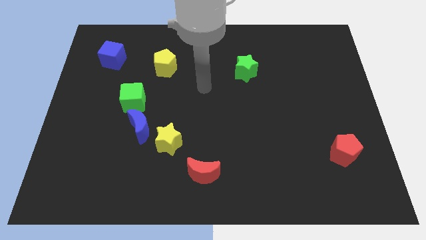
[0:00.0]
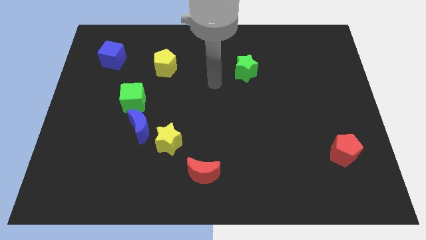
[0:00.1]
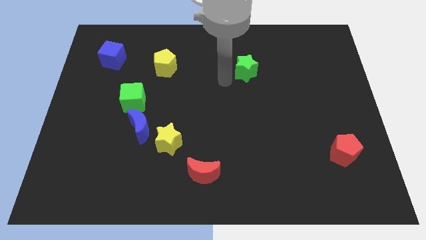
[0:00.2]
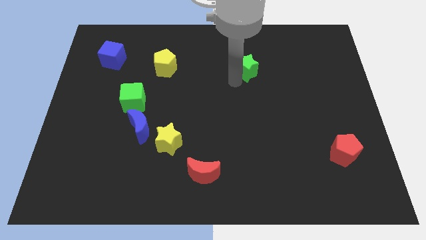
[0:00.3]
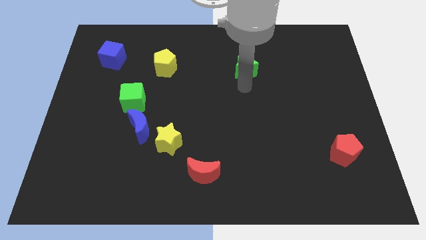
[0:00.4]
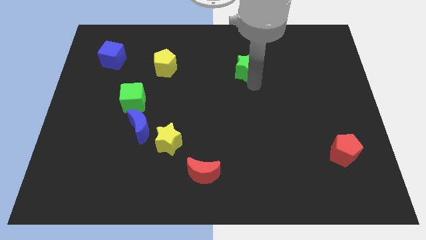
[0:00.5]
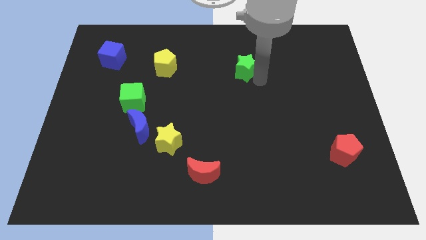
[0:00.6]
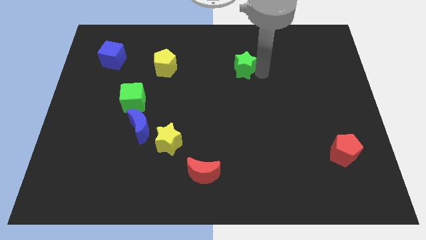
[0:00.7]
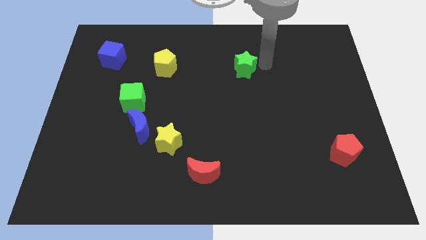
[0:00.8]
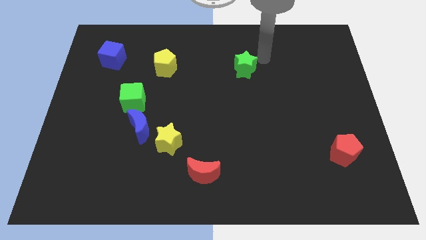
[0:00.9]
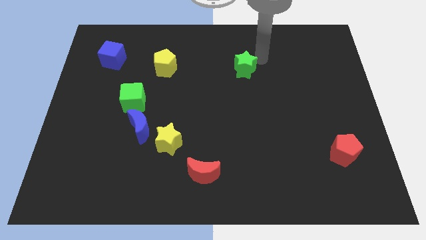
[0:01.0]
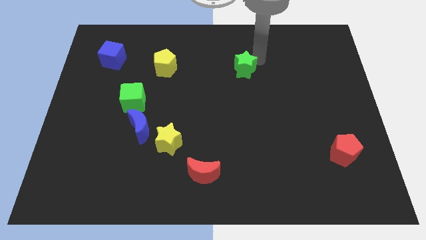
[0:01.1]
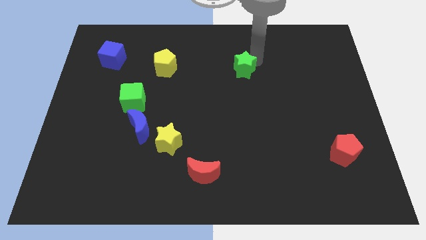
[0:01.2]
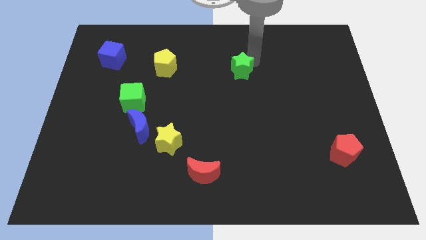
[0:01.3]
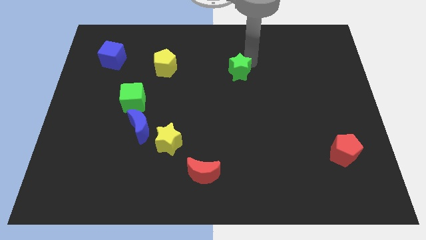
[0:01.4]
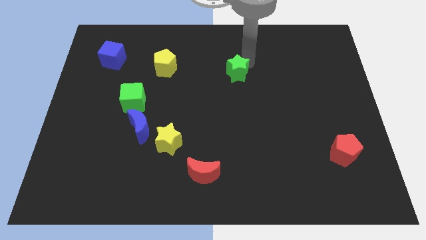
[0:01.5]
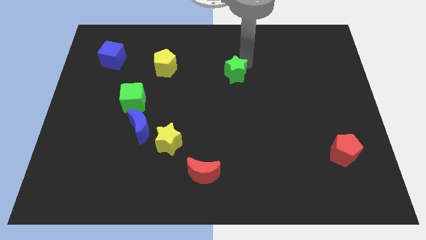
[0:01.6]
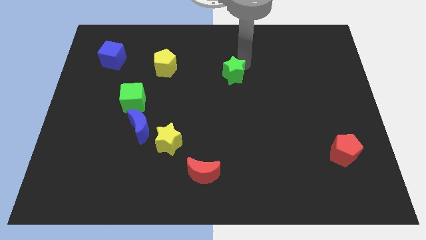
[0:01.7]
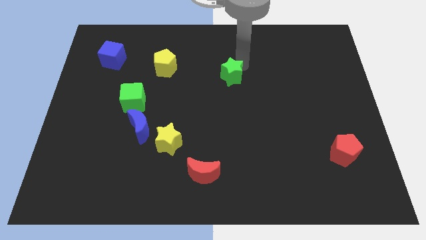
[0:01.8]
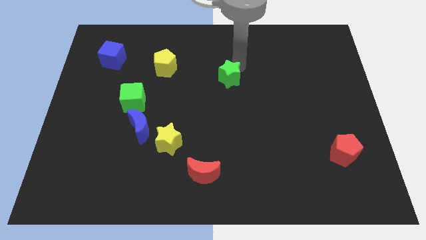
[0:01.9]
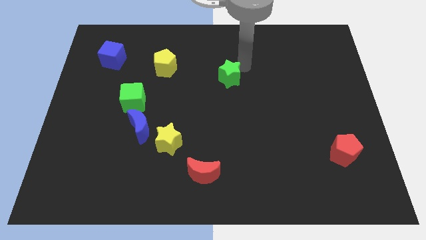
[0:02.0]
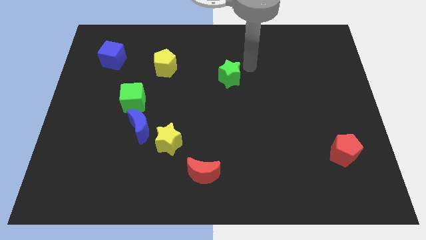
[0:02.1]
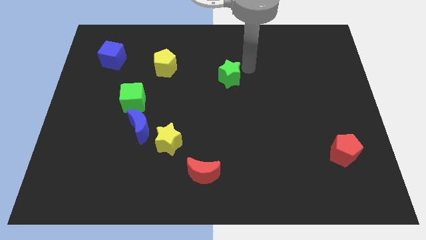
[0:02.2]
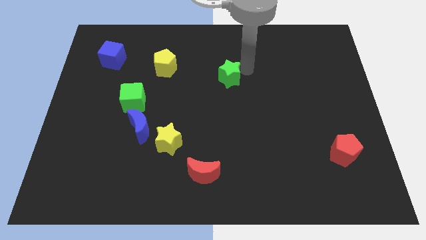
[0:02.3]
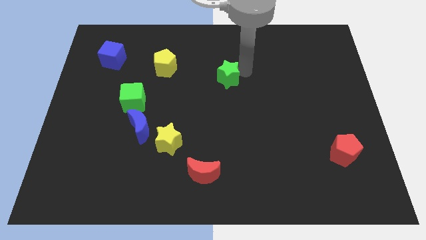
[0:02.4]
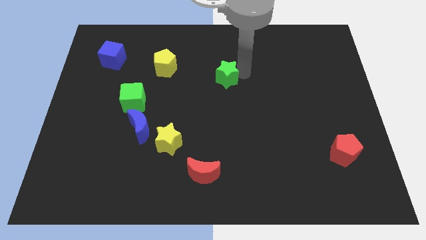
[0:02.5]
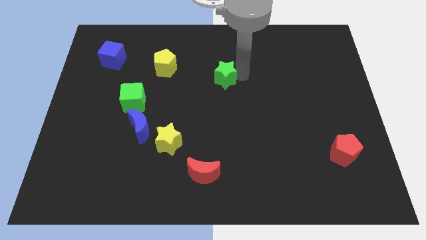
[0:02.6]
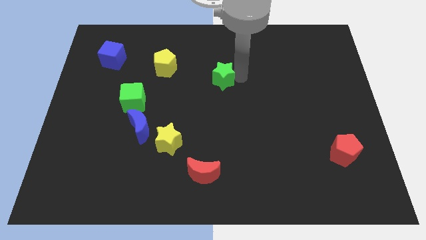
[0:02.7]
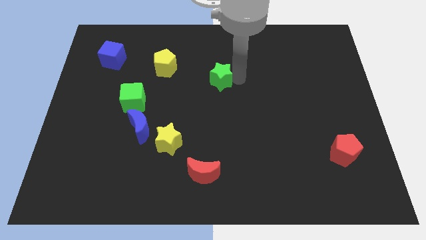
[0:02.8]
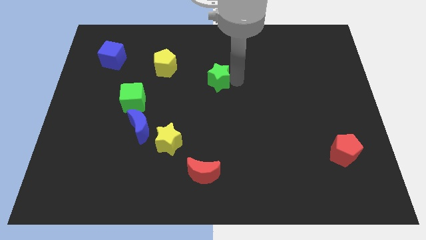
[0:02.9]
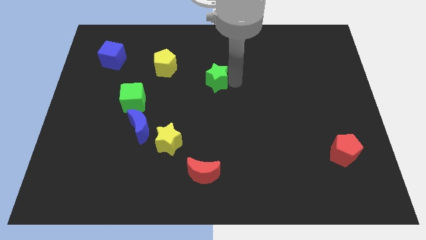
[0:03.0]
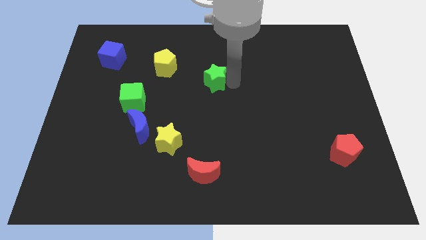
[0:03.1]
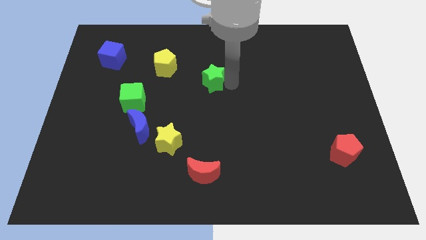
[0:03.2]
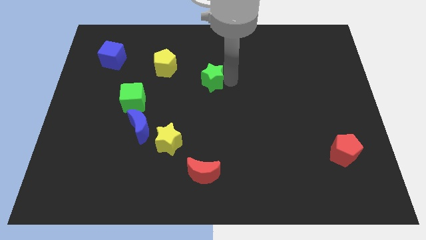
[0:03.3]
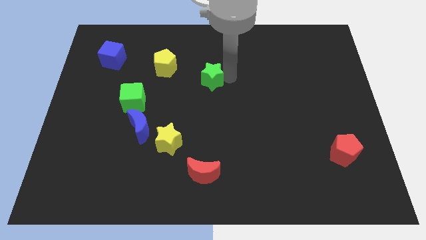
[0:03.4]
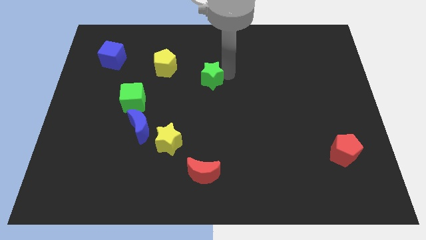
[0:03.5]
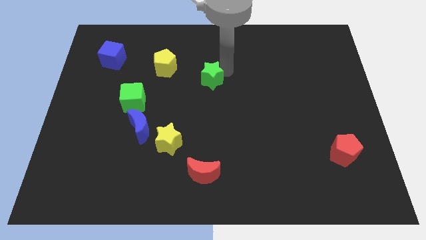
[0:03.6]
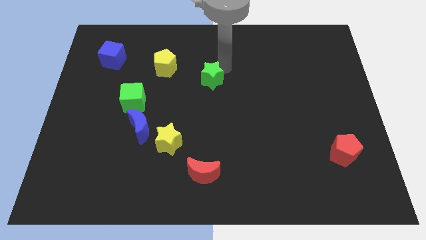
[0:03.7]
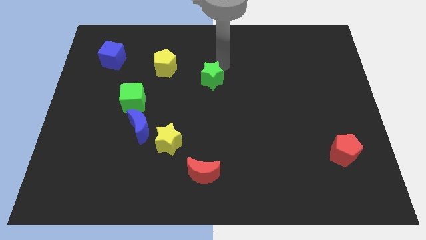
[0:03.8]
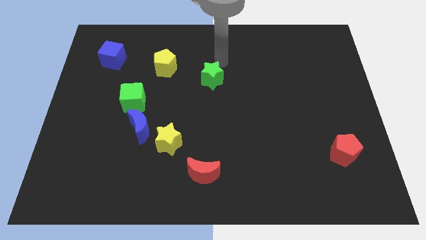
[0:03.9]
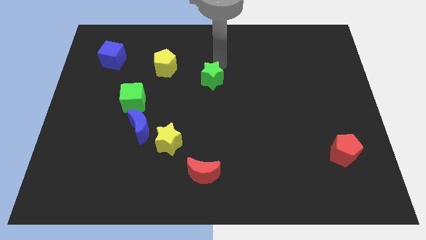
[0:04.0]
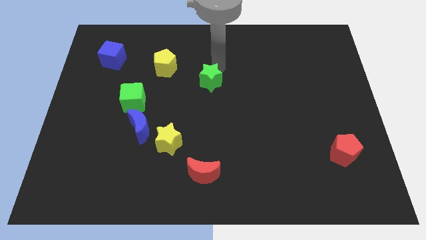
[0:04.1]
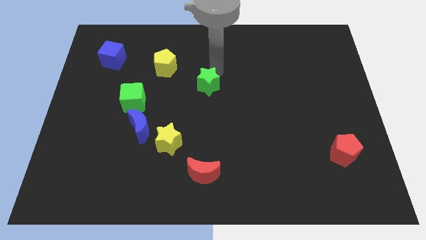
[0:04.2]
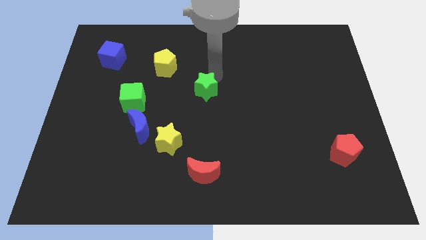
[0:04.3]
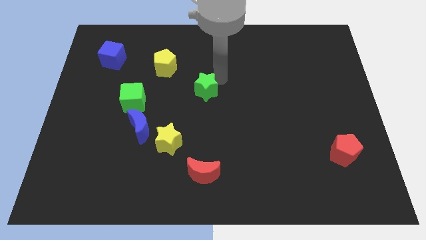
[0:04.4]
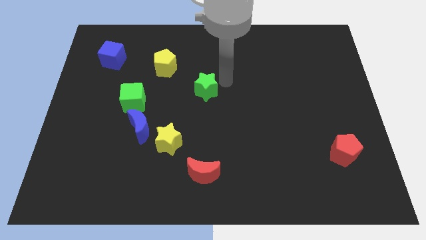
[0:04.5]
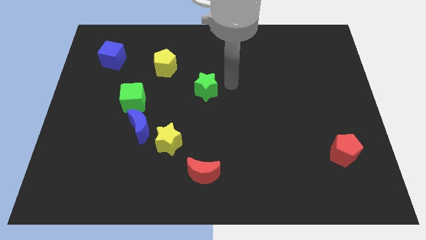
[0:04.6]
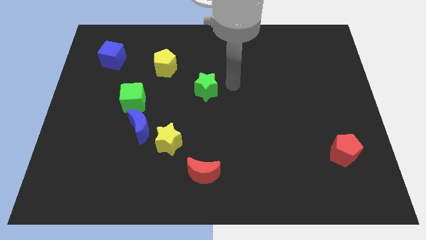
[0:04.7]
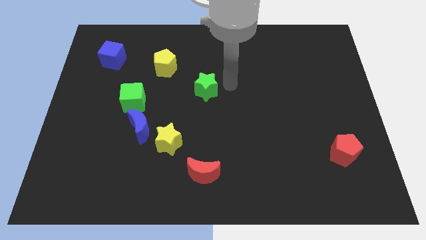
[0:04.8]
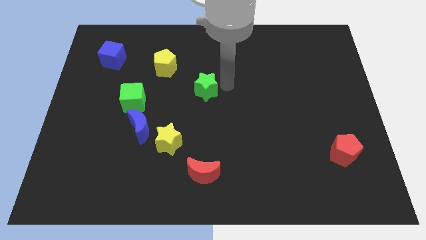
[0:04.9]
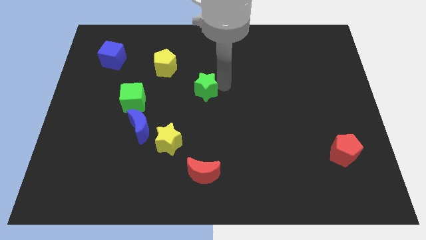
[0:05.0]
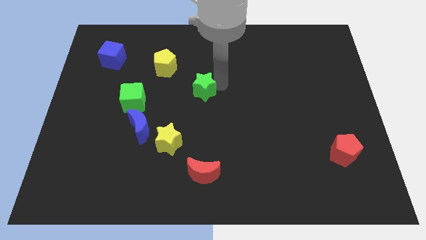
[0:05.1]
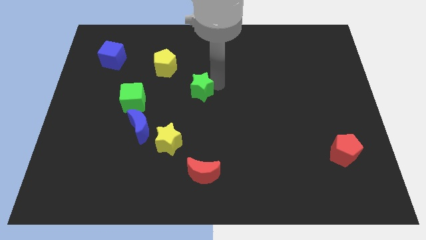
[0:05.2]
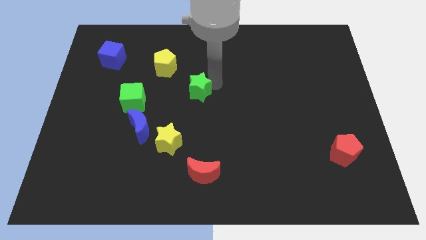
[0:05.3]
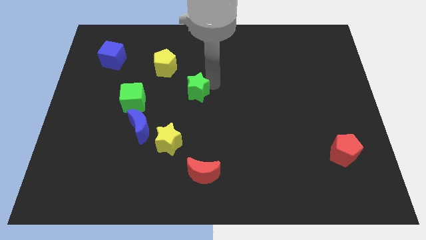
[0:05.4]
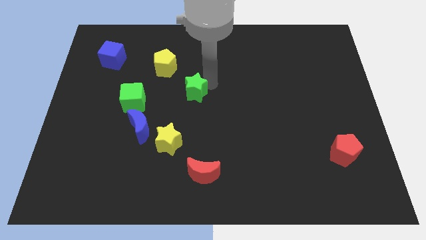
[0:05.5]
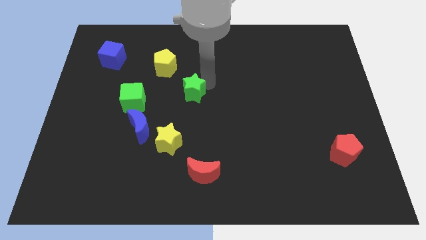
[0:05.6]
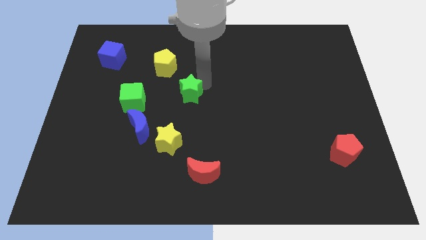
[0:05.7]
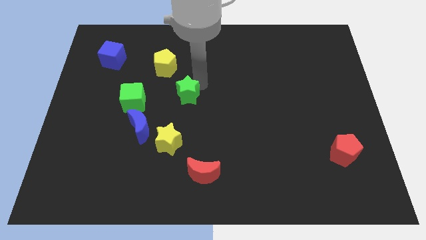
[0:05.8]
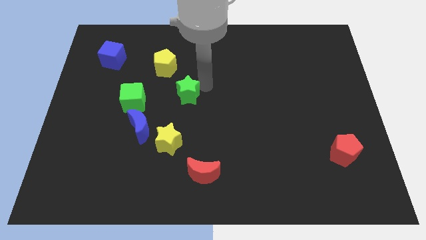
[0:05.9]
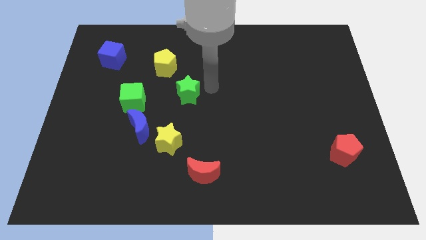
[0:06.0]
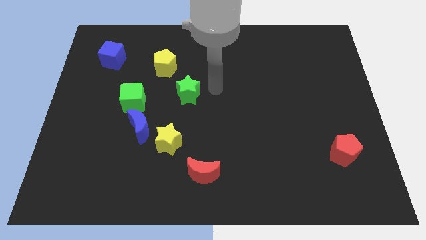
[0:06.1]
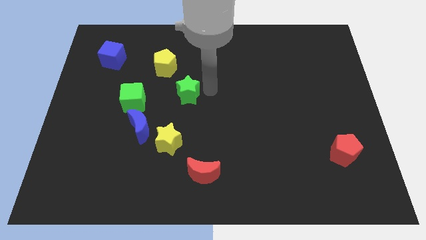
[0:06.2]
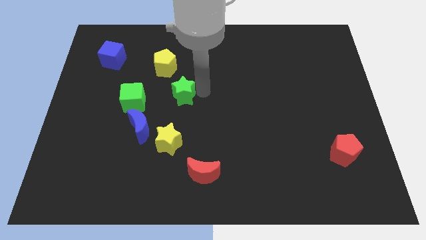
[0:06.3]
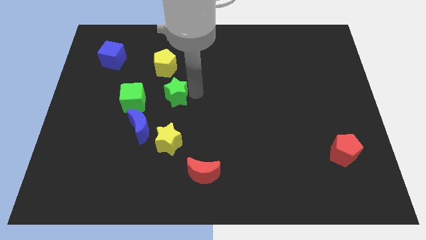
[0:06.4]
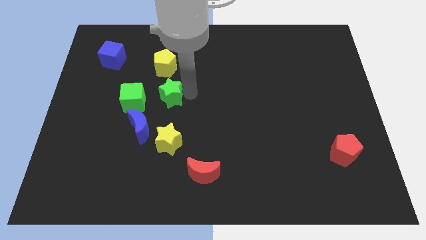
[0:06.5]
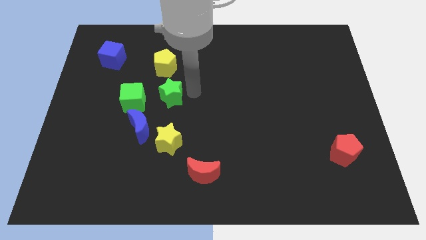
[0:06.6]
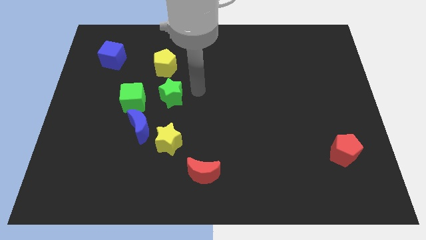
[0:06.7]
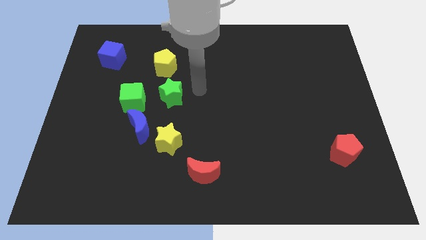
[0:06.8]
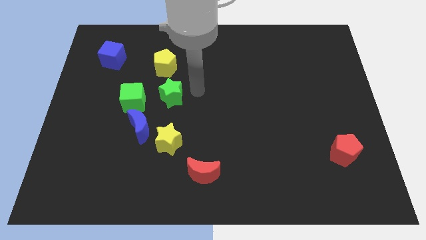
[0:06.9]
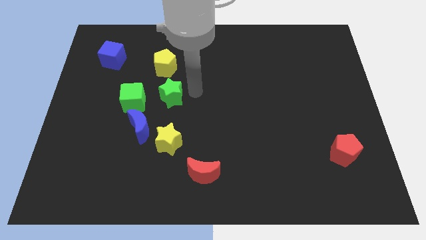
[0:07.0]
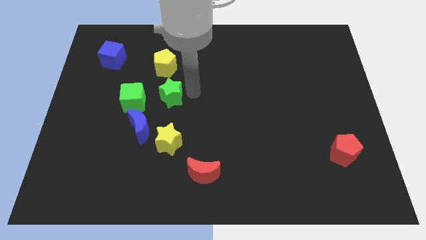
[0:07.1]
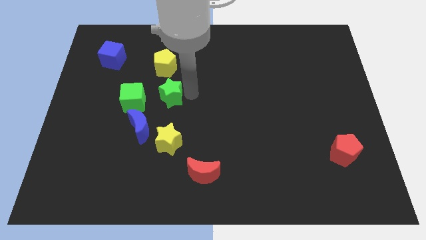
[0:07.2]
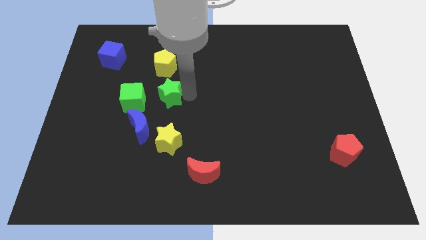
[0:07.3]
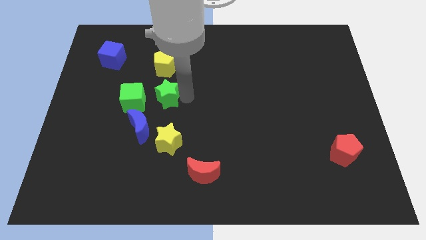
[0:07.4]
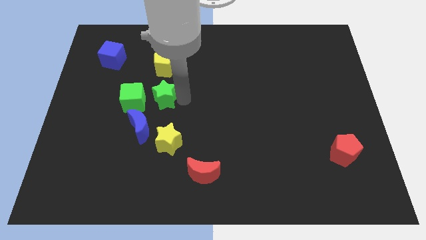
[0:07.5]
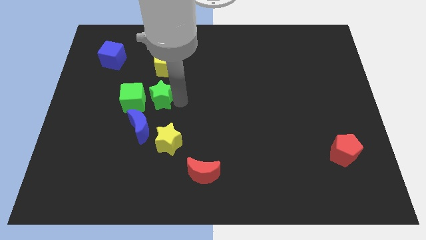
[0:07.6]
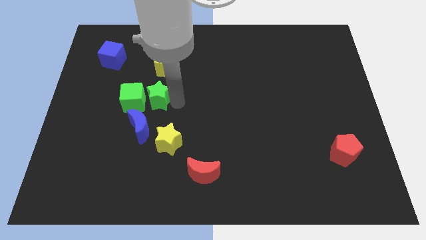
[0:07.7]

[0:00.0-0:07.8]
put the green star towards the green cube
